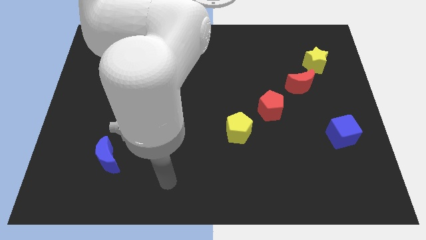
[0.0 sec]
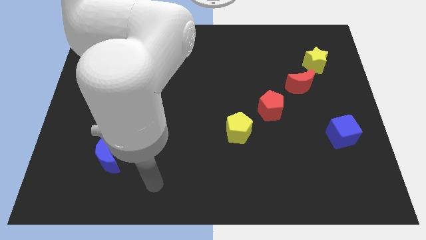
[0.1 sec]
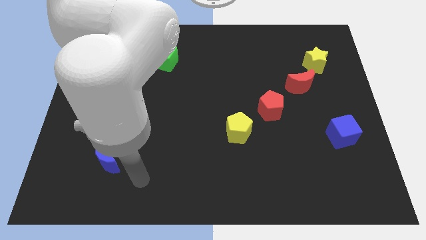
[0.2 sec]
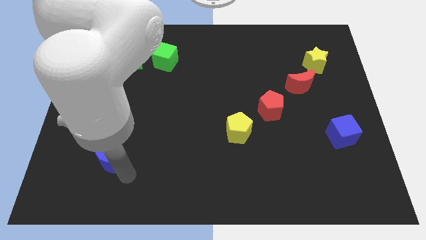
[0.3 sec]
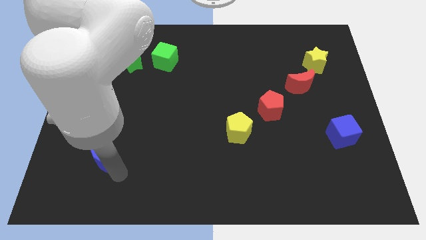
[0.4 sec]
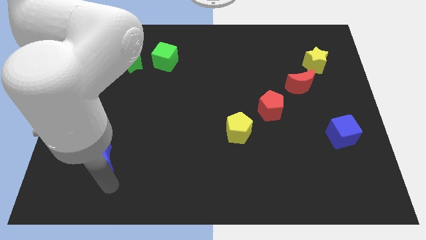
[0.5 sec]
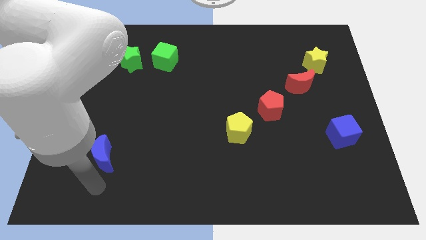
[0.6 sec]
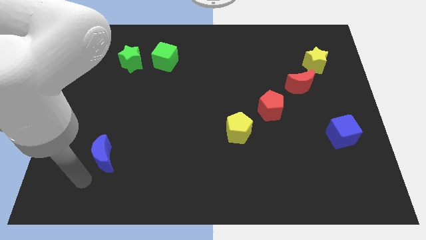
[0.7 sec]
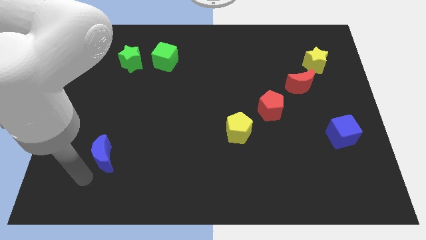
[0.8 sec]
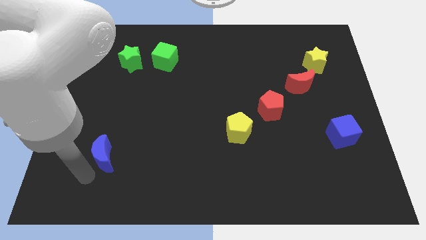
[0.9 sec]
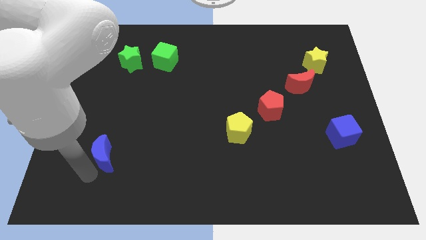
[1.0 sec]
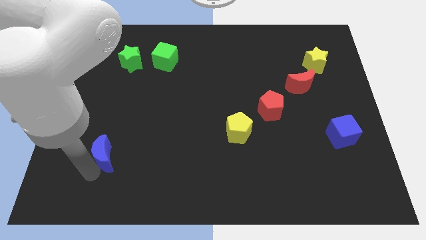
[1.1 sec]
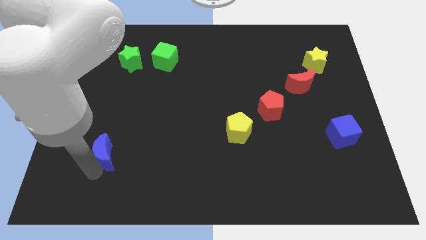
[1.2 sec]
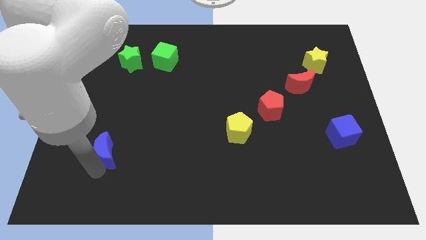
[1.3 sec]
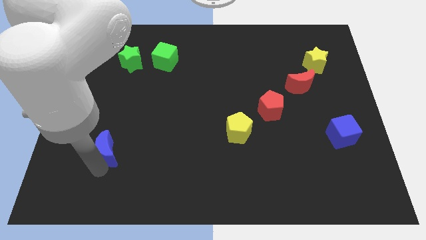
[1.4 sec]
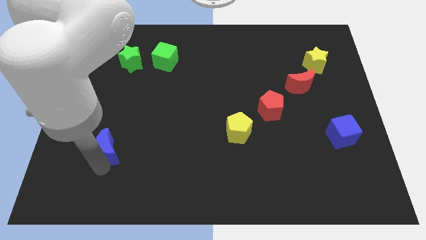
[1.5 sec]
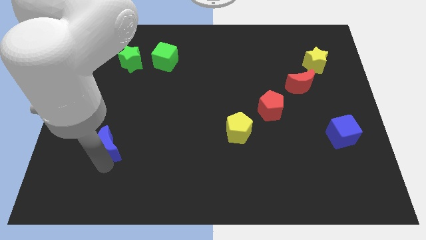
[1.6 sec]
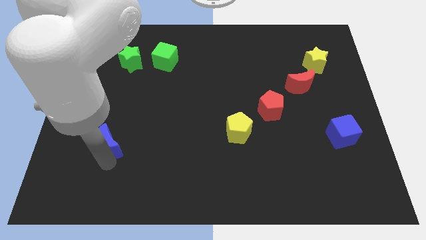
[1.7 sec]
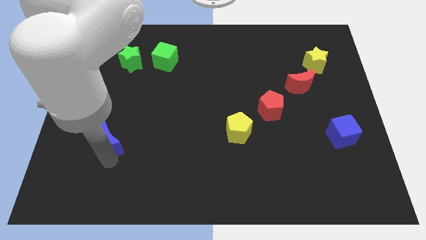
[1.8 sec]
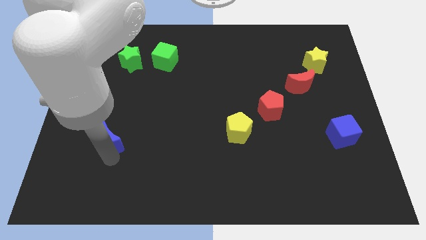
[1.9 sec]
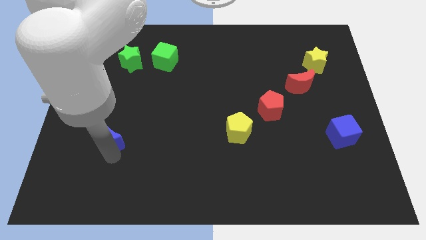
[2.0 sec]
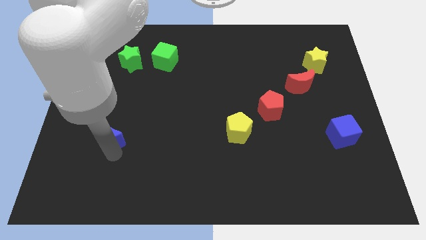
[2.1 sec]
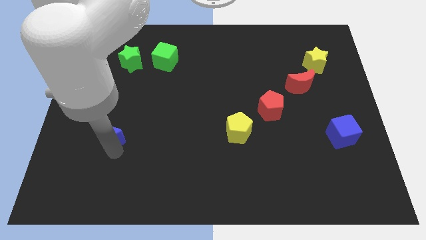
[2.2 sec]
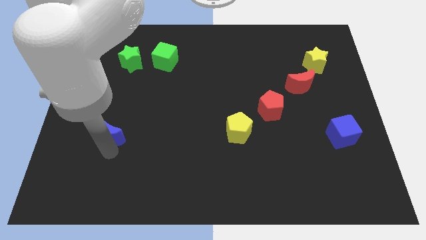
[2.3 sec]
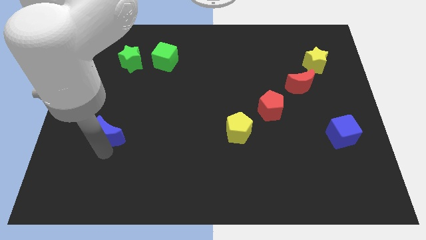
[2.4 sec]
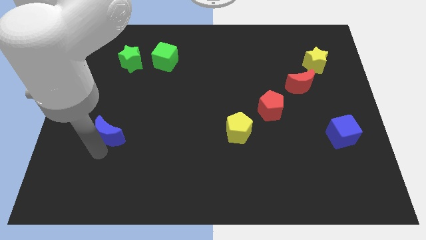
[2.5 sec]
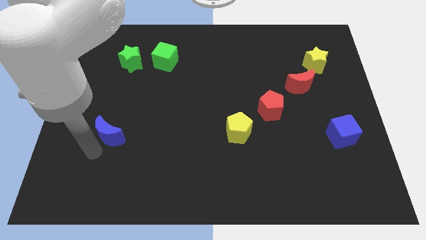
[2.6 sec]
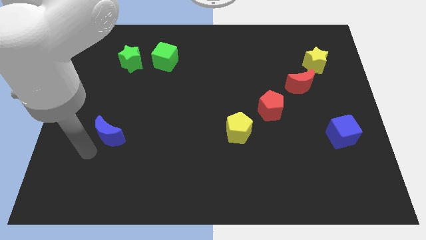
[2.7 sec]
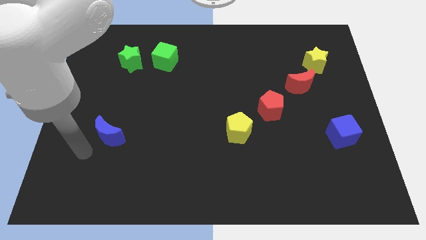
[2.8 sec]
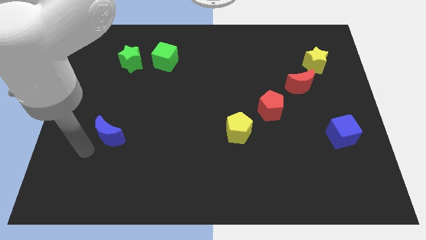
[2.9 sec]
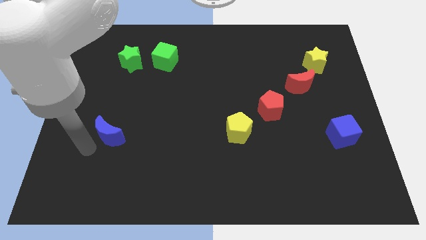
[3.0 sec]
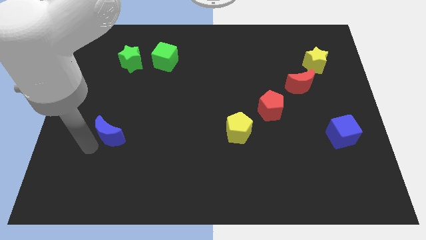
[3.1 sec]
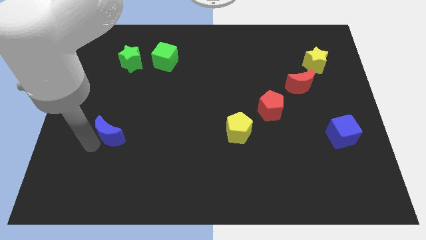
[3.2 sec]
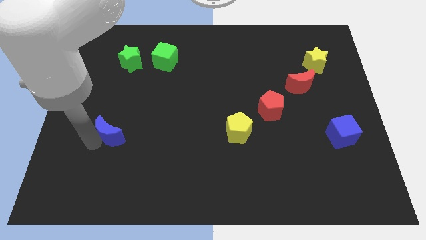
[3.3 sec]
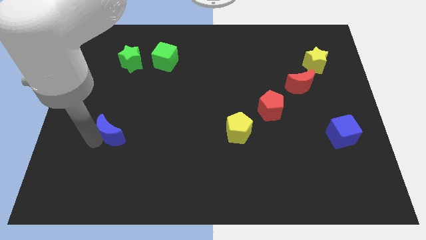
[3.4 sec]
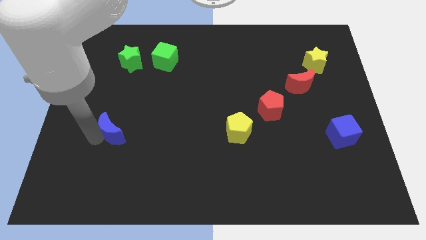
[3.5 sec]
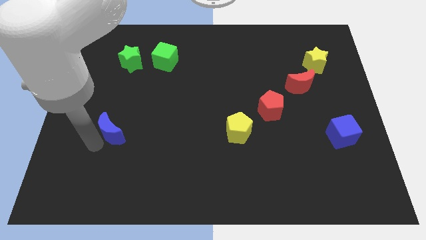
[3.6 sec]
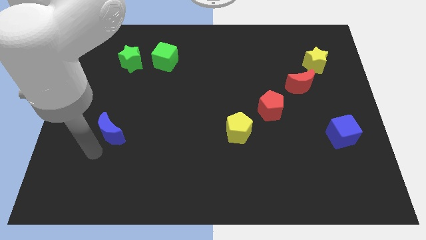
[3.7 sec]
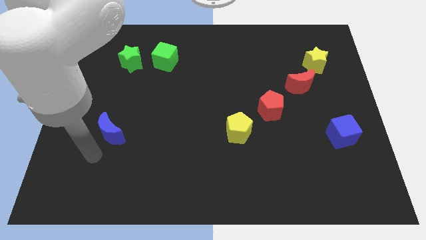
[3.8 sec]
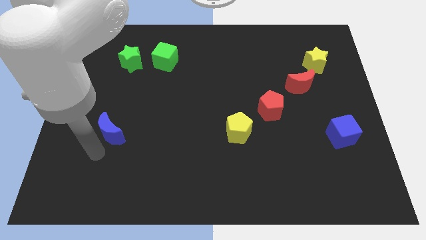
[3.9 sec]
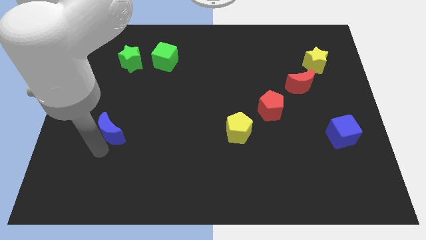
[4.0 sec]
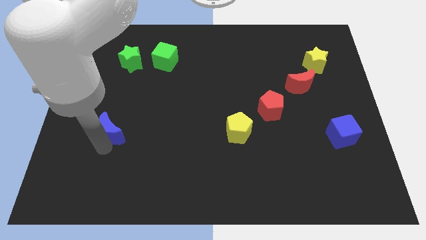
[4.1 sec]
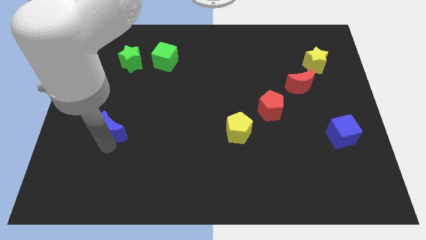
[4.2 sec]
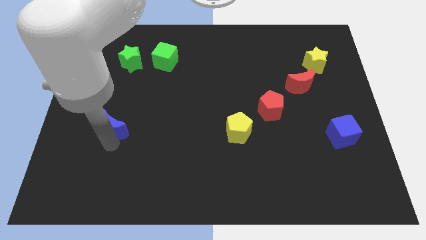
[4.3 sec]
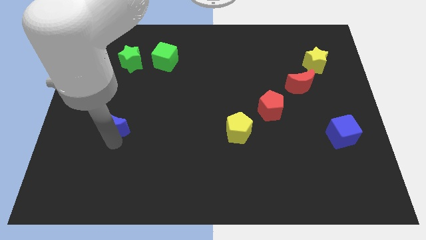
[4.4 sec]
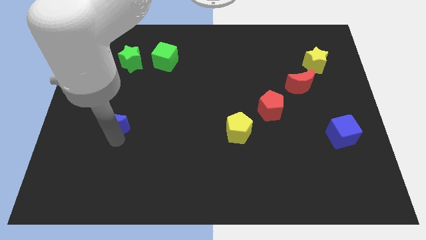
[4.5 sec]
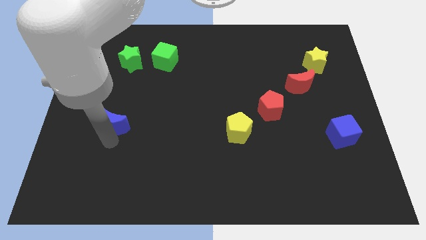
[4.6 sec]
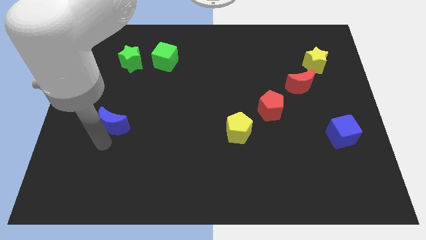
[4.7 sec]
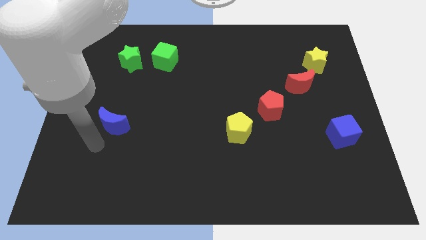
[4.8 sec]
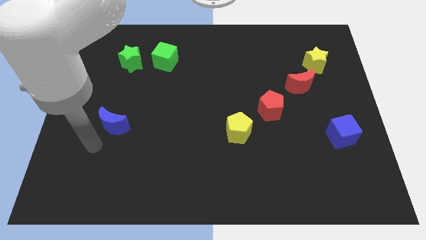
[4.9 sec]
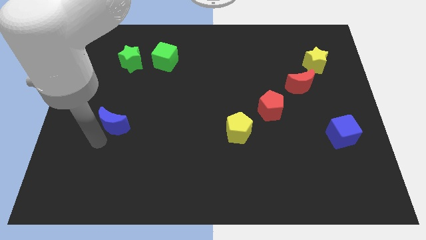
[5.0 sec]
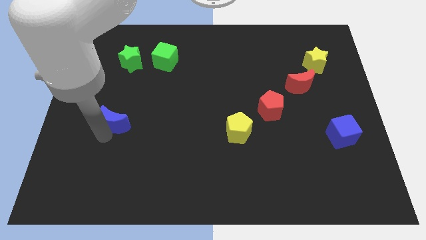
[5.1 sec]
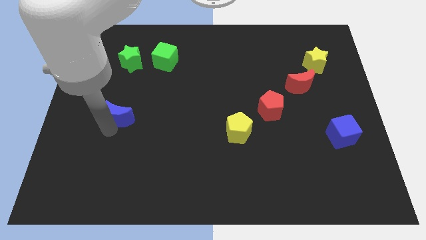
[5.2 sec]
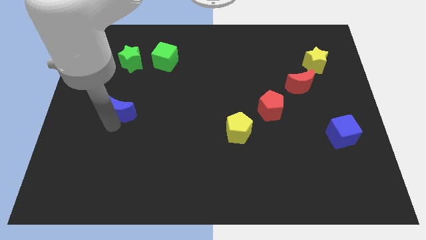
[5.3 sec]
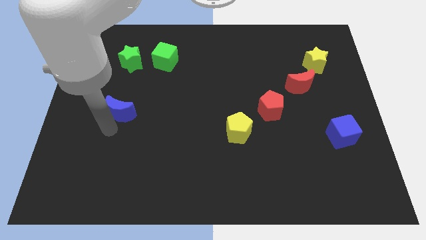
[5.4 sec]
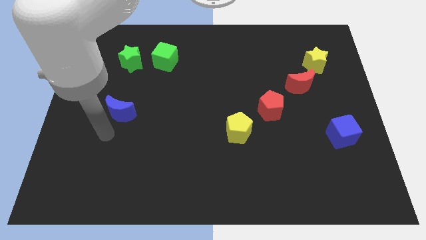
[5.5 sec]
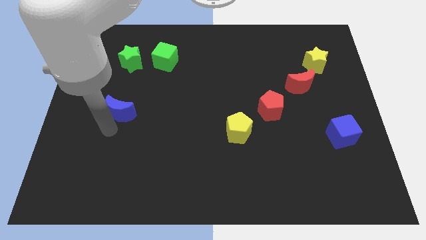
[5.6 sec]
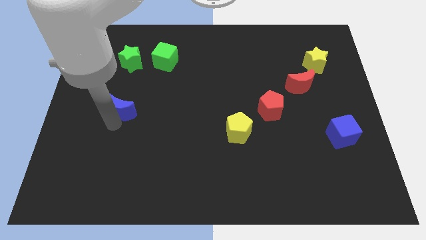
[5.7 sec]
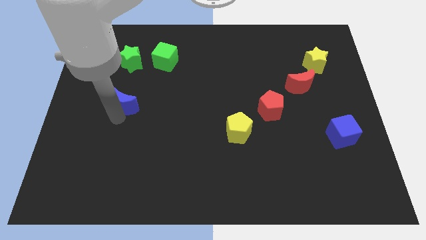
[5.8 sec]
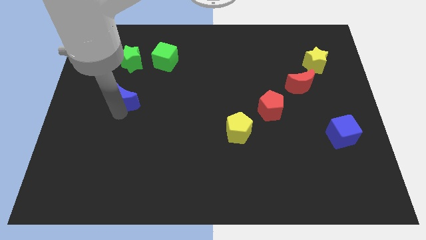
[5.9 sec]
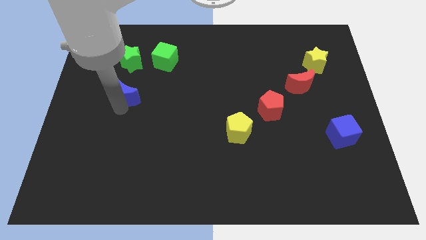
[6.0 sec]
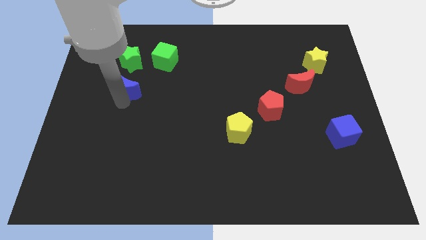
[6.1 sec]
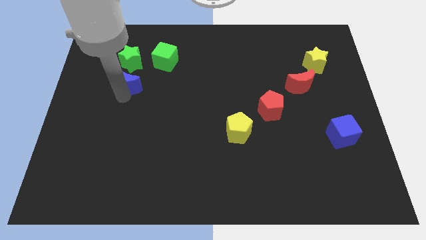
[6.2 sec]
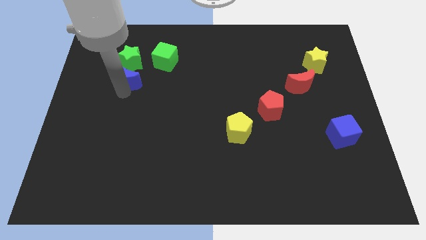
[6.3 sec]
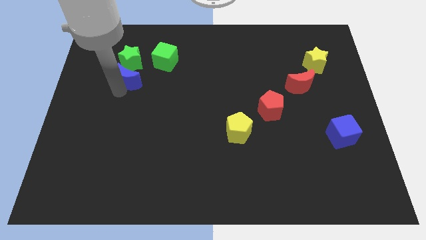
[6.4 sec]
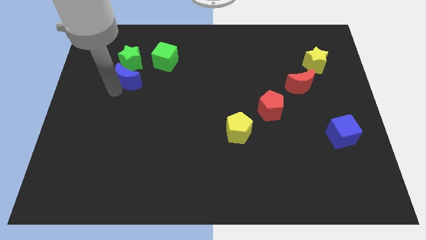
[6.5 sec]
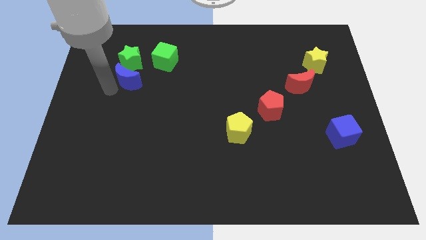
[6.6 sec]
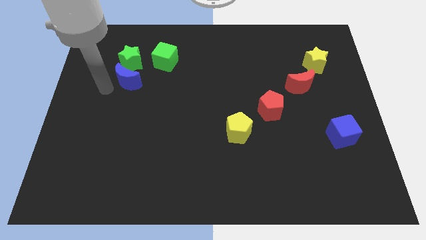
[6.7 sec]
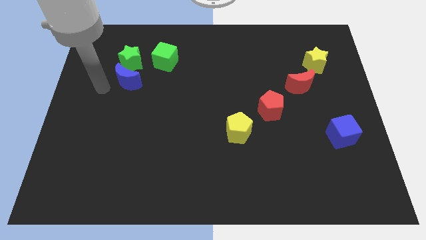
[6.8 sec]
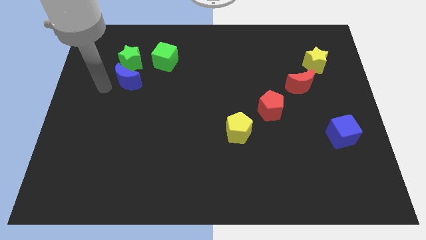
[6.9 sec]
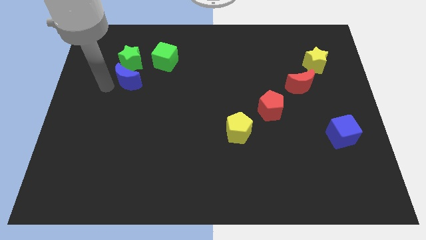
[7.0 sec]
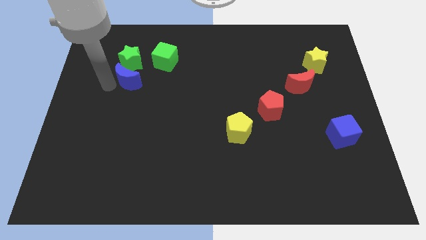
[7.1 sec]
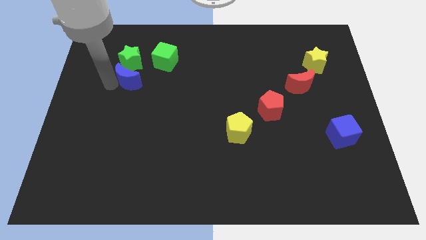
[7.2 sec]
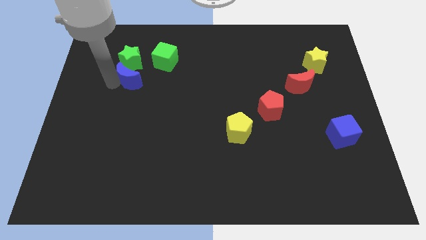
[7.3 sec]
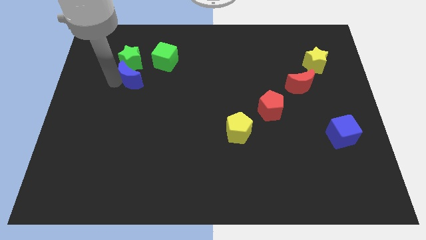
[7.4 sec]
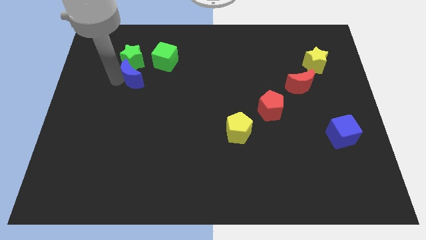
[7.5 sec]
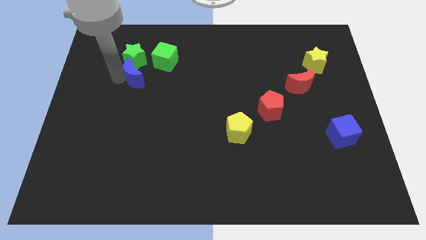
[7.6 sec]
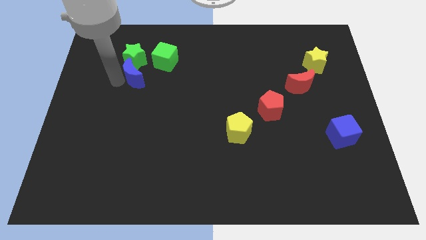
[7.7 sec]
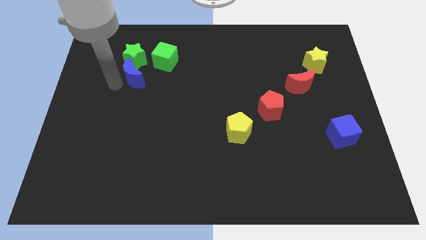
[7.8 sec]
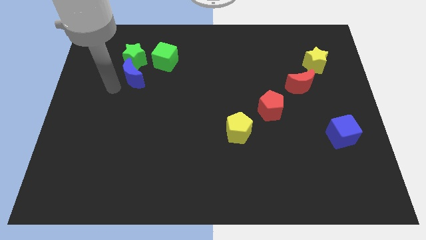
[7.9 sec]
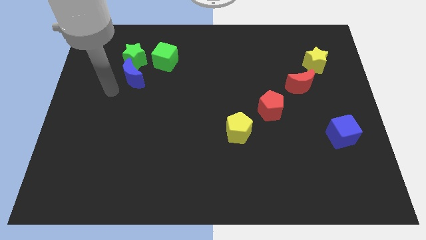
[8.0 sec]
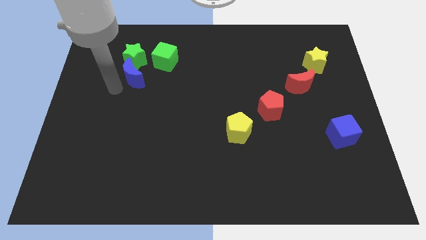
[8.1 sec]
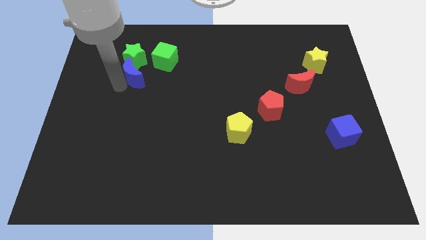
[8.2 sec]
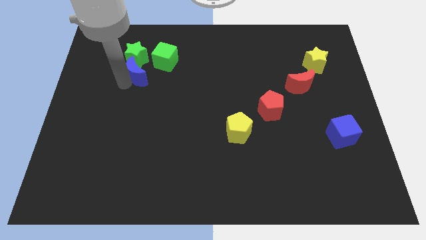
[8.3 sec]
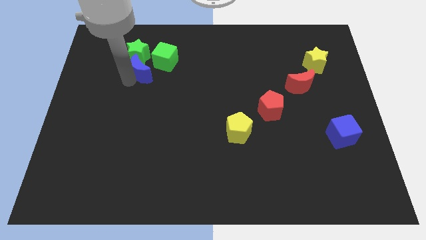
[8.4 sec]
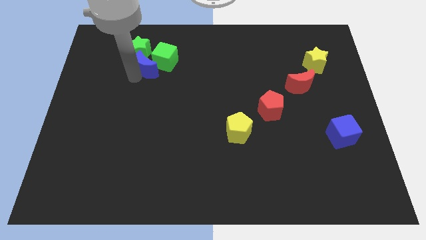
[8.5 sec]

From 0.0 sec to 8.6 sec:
push the blue moon to the green cube
